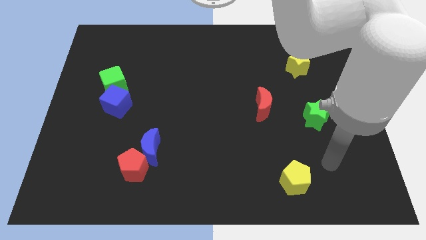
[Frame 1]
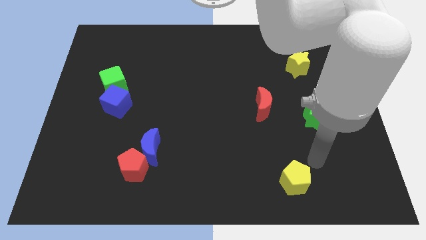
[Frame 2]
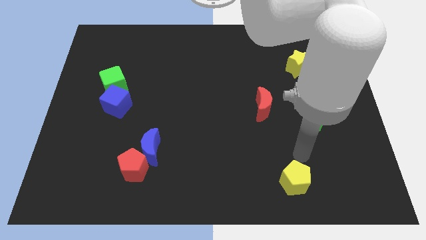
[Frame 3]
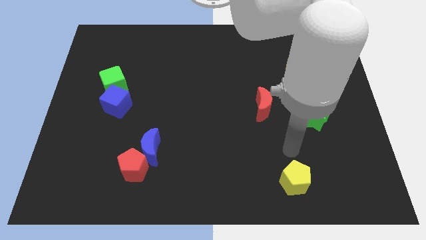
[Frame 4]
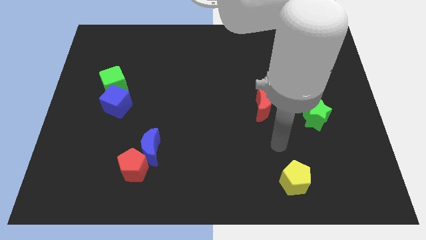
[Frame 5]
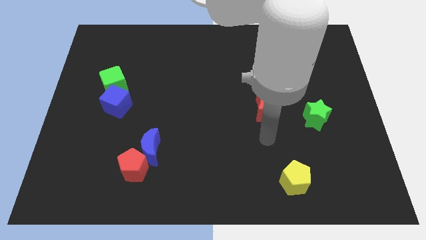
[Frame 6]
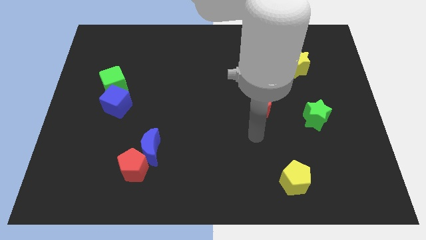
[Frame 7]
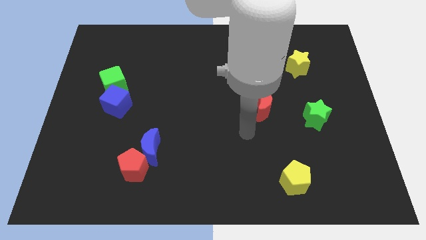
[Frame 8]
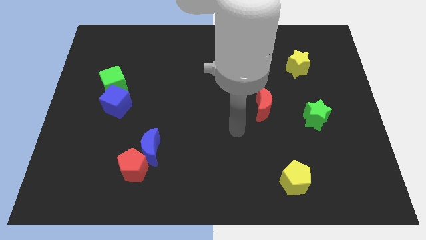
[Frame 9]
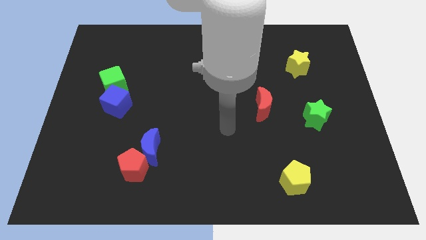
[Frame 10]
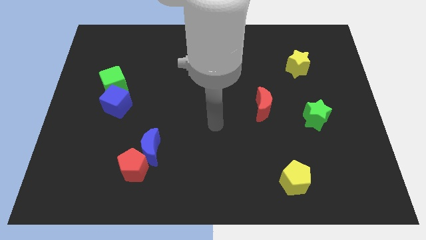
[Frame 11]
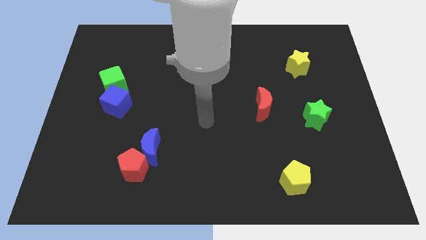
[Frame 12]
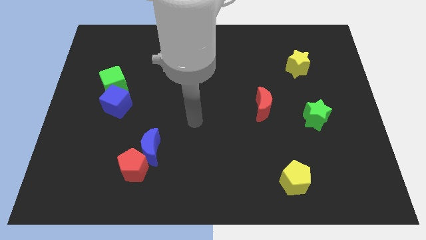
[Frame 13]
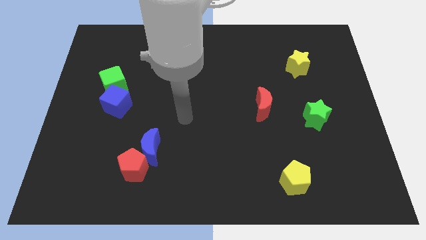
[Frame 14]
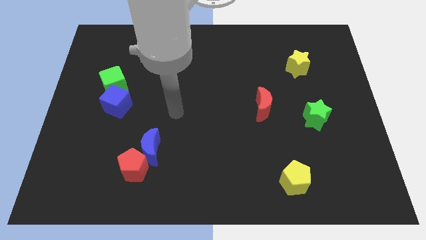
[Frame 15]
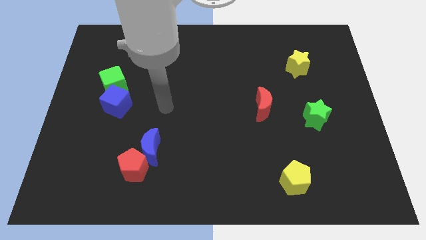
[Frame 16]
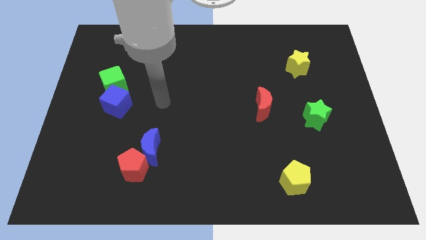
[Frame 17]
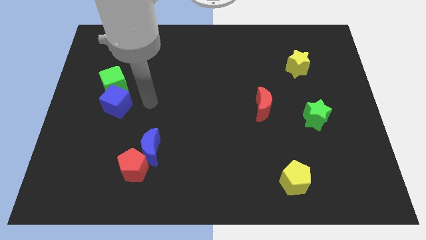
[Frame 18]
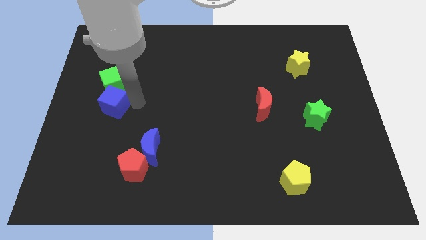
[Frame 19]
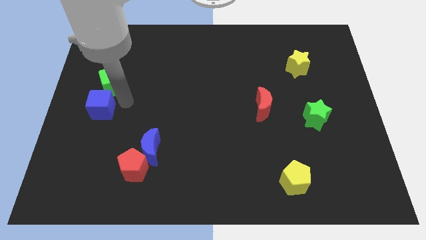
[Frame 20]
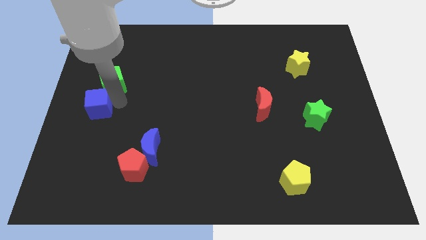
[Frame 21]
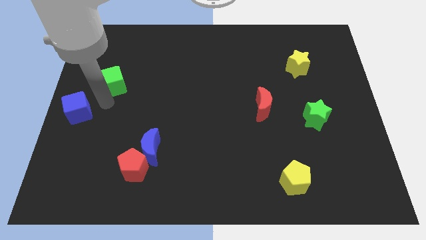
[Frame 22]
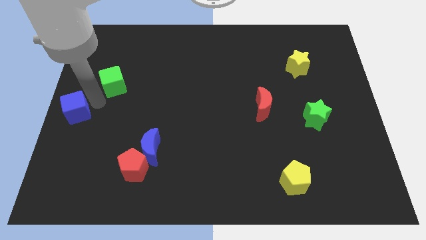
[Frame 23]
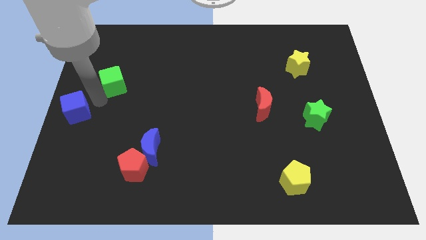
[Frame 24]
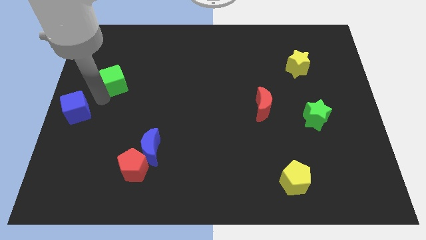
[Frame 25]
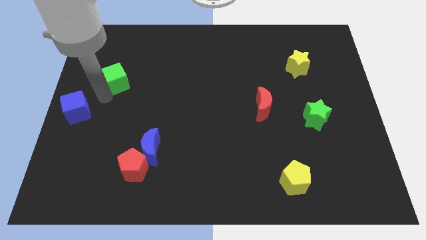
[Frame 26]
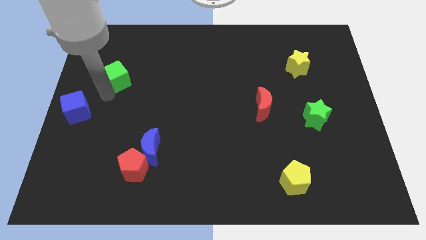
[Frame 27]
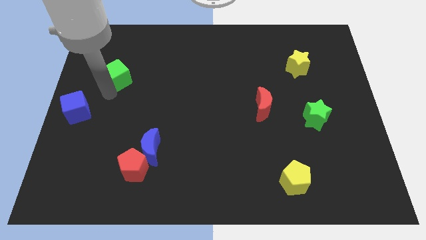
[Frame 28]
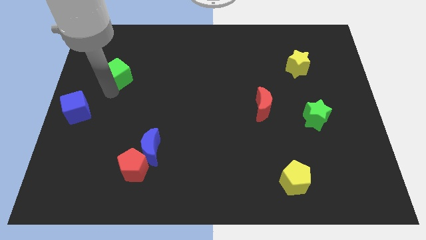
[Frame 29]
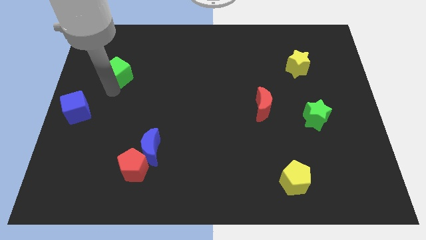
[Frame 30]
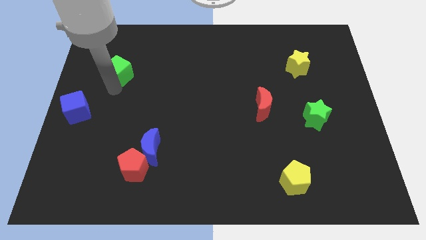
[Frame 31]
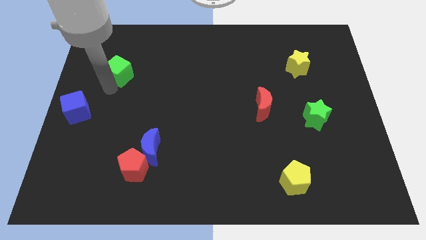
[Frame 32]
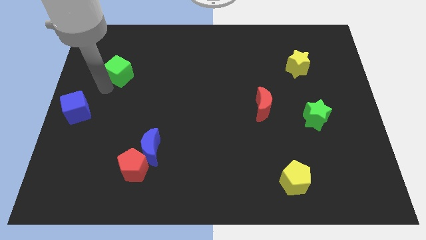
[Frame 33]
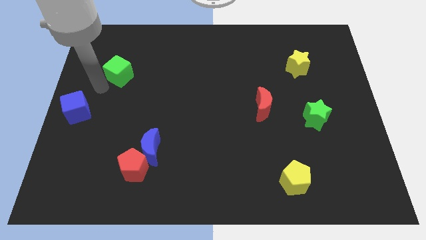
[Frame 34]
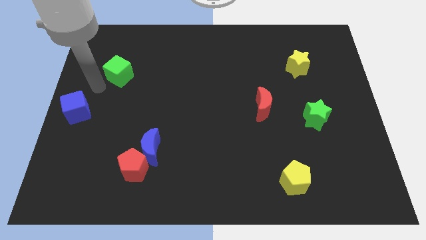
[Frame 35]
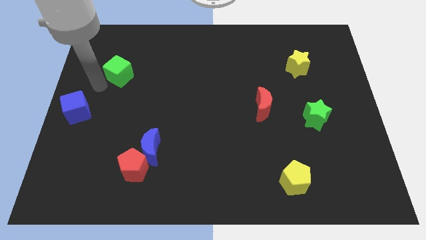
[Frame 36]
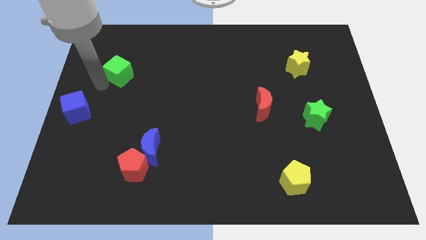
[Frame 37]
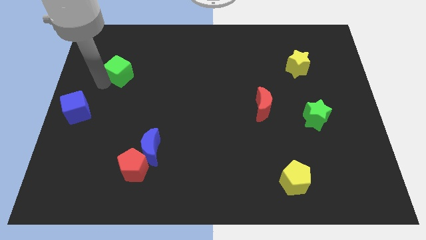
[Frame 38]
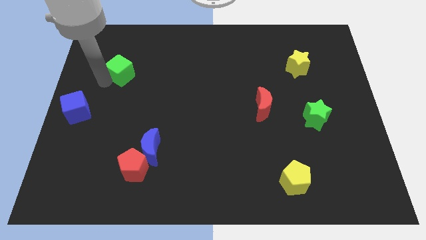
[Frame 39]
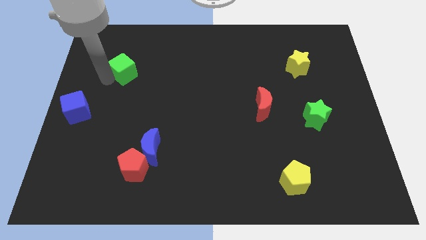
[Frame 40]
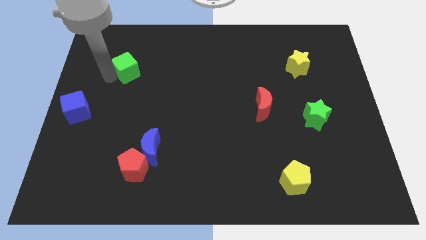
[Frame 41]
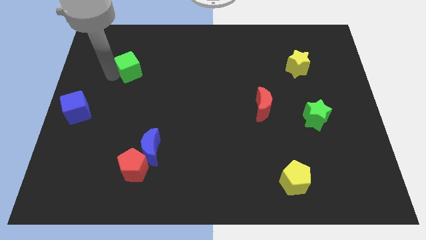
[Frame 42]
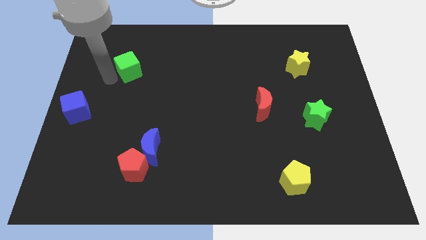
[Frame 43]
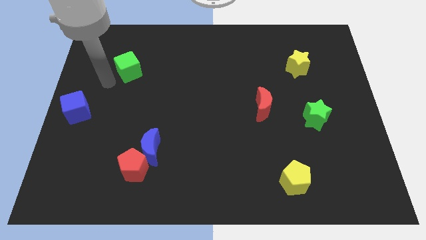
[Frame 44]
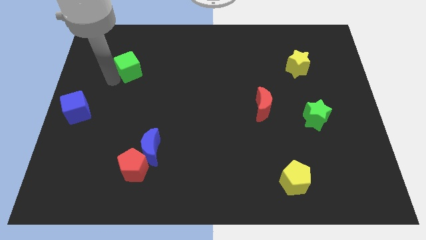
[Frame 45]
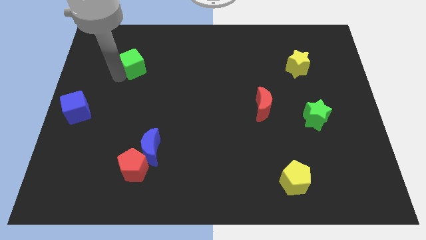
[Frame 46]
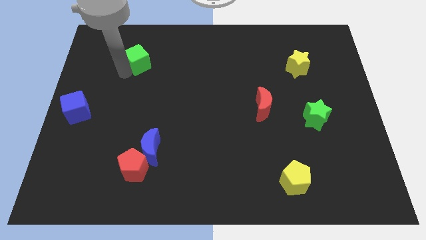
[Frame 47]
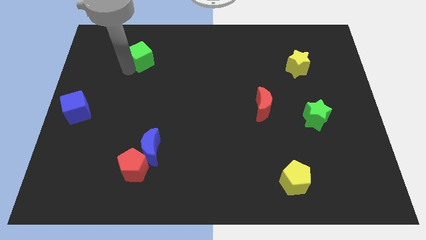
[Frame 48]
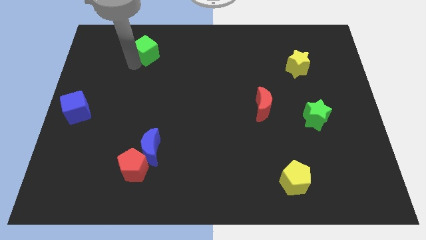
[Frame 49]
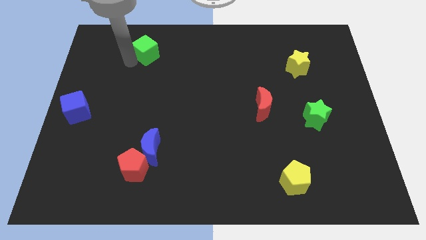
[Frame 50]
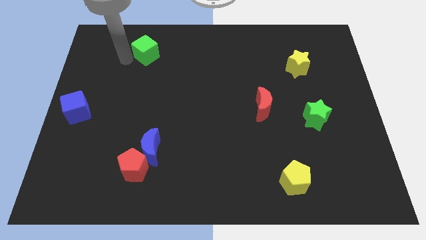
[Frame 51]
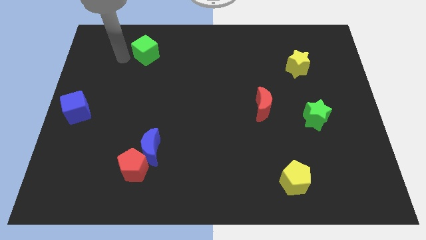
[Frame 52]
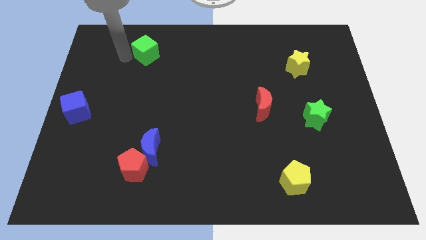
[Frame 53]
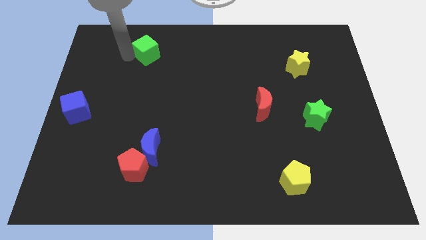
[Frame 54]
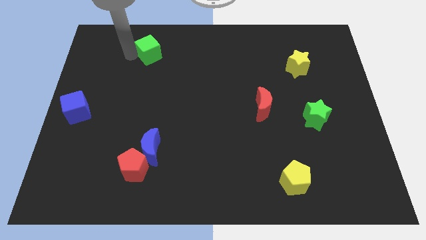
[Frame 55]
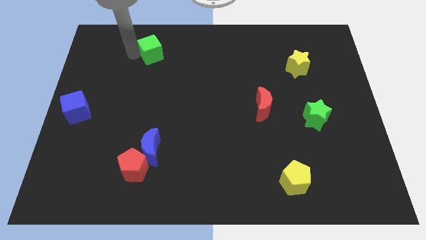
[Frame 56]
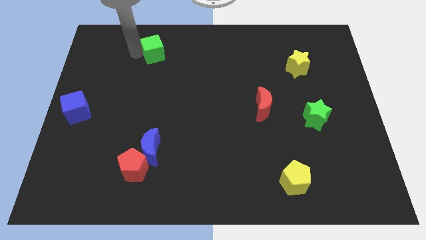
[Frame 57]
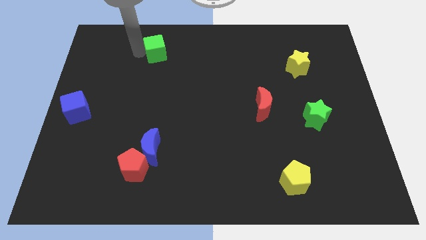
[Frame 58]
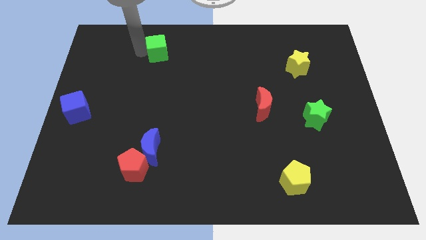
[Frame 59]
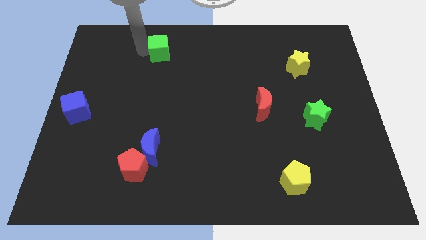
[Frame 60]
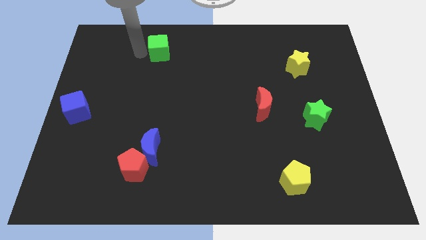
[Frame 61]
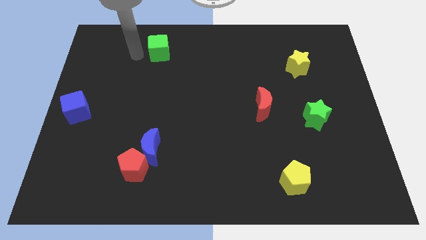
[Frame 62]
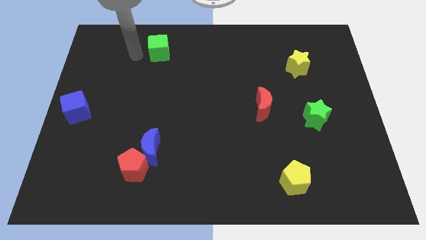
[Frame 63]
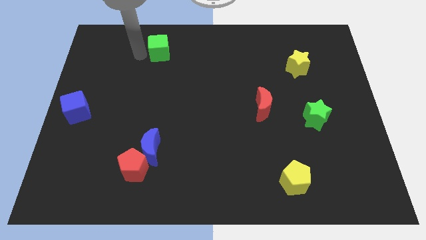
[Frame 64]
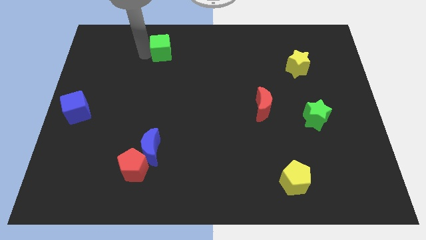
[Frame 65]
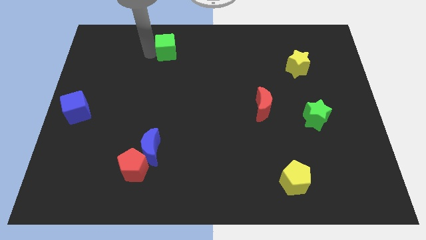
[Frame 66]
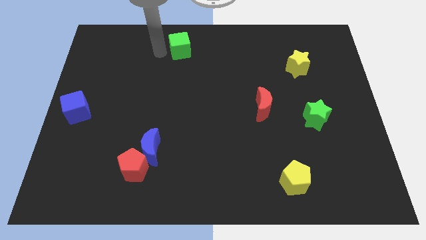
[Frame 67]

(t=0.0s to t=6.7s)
put the green cube to the top side

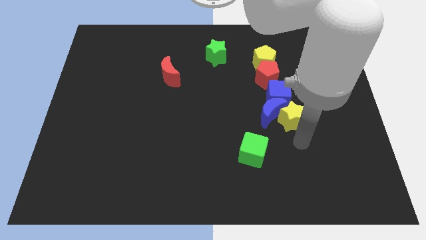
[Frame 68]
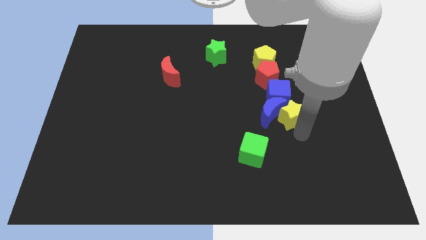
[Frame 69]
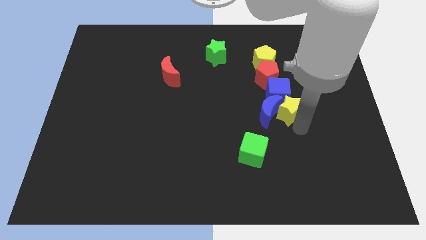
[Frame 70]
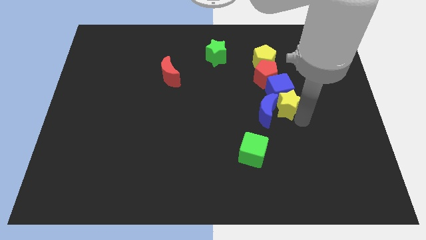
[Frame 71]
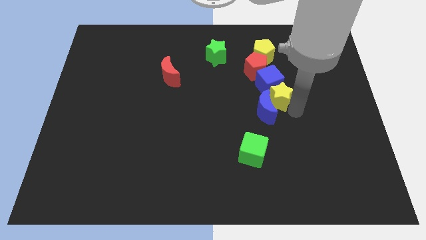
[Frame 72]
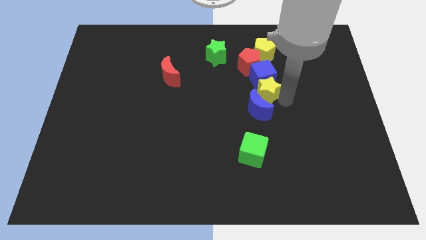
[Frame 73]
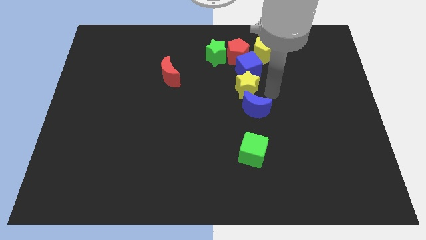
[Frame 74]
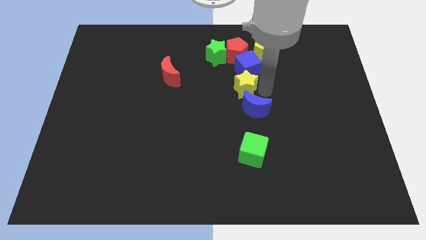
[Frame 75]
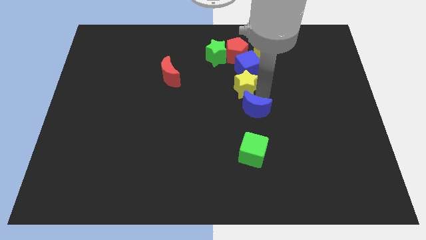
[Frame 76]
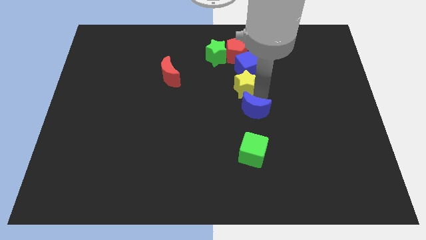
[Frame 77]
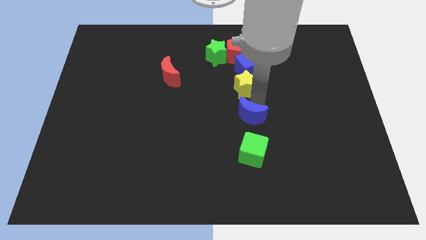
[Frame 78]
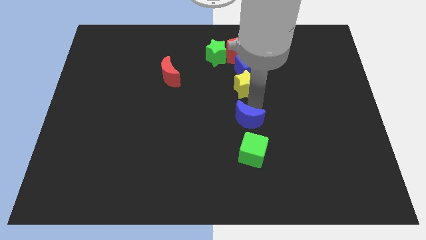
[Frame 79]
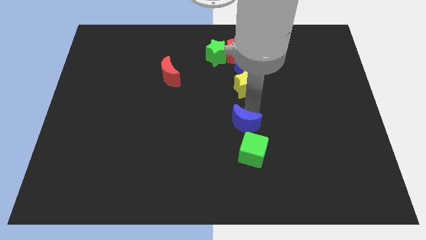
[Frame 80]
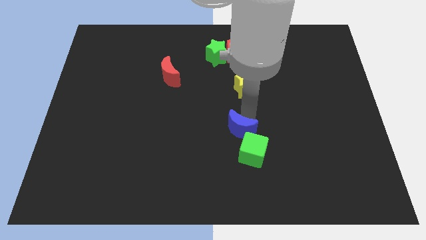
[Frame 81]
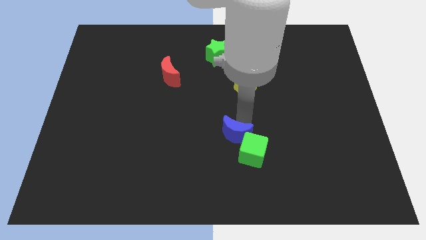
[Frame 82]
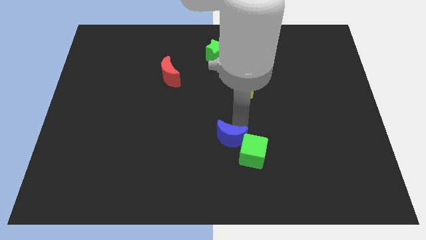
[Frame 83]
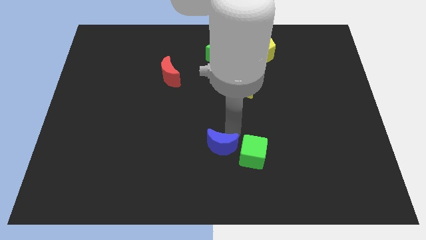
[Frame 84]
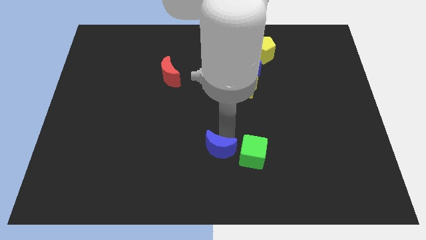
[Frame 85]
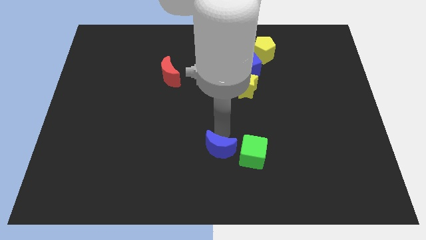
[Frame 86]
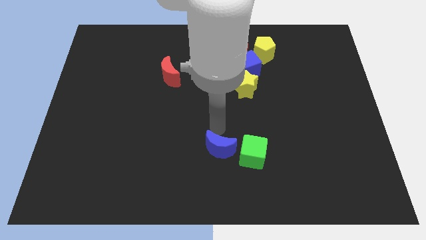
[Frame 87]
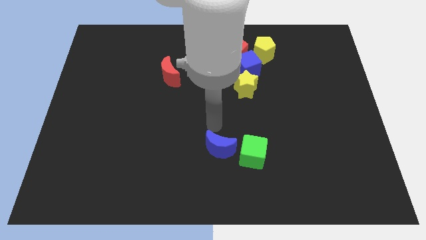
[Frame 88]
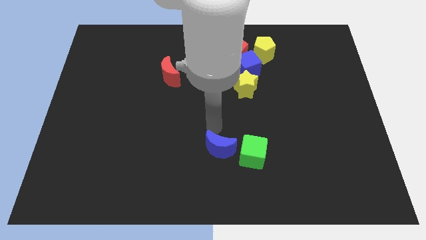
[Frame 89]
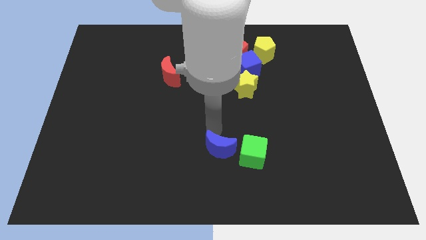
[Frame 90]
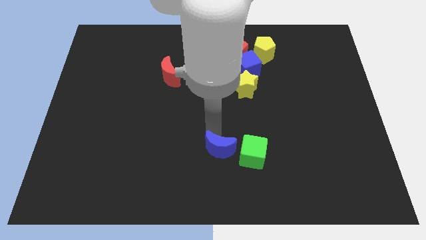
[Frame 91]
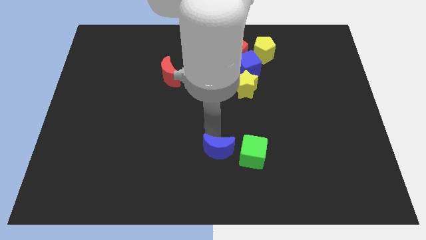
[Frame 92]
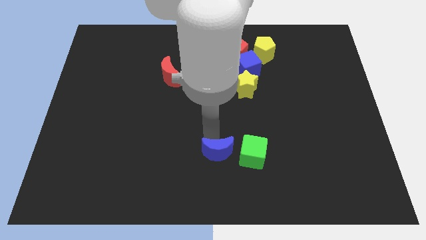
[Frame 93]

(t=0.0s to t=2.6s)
push the blue moon to the bottom
